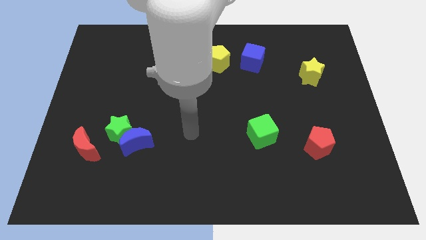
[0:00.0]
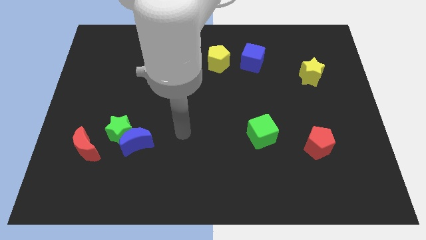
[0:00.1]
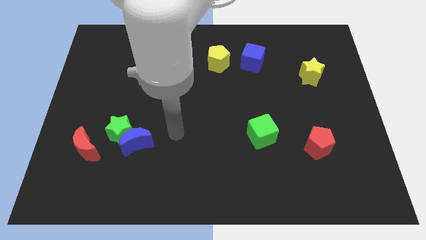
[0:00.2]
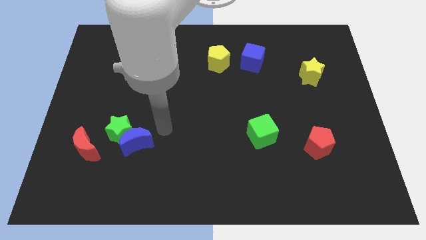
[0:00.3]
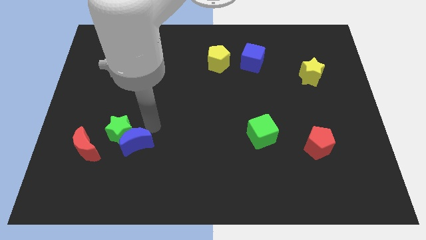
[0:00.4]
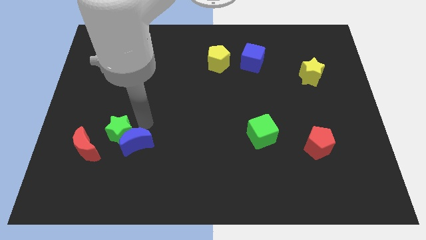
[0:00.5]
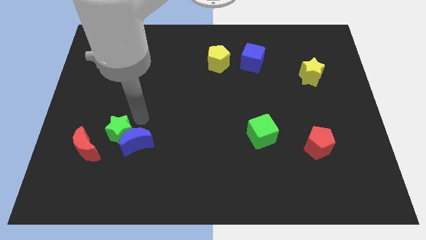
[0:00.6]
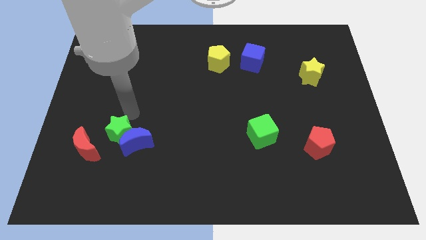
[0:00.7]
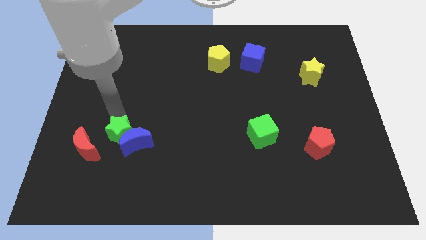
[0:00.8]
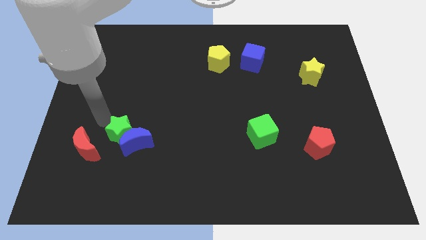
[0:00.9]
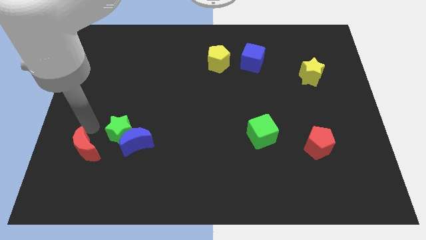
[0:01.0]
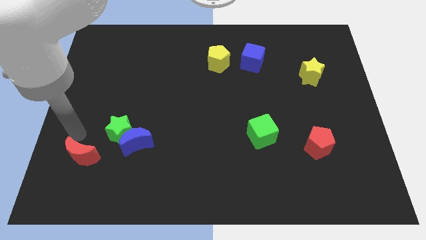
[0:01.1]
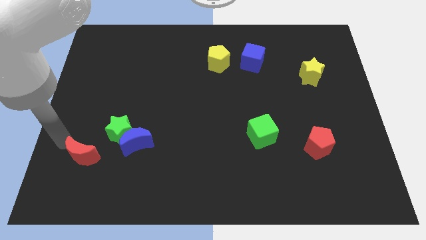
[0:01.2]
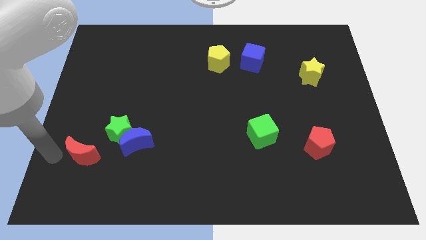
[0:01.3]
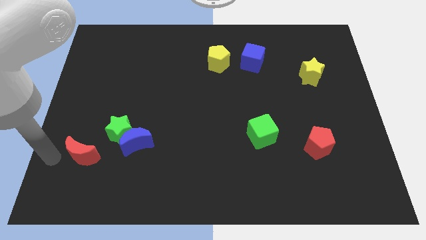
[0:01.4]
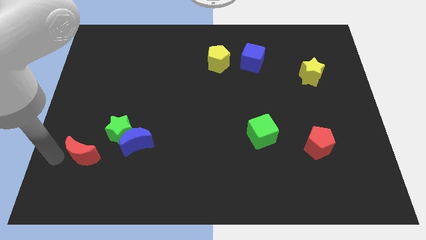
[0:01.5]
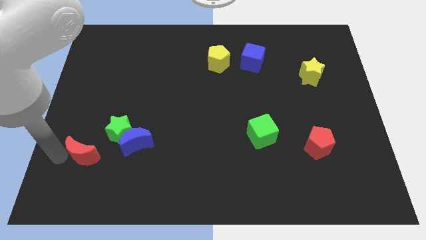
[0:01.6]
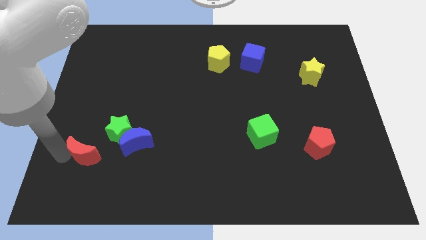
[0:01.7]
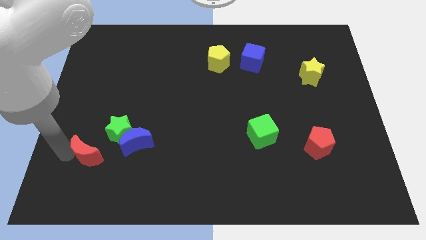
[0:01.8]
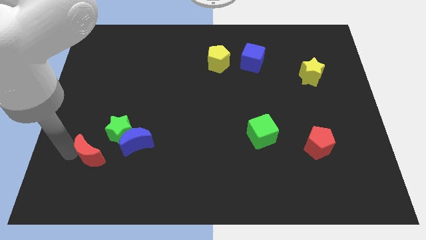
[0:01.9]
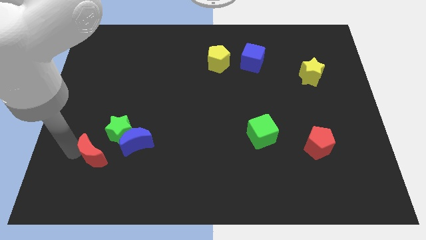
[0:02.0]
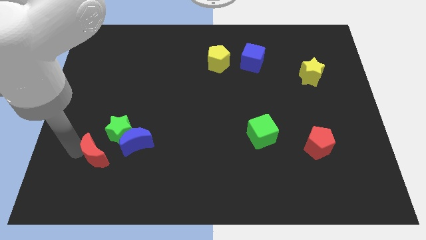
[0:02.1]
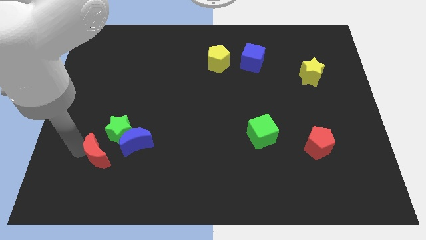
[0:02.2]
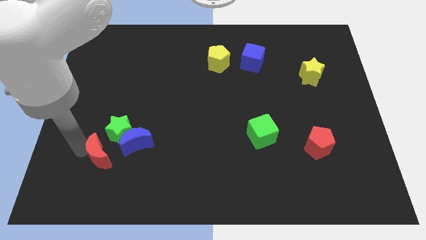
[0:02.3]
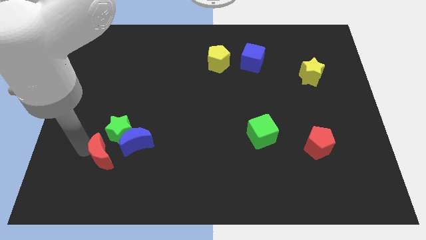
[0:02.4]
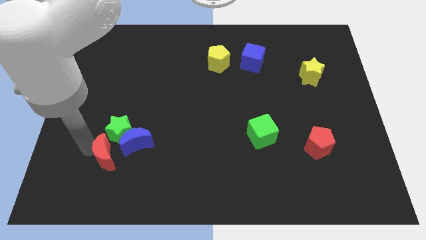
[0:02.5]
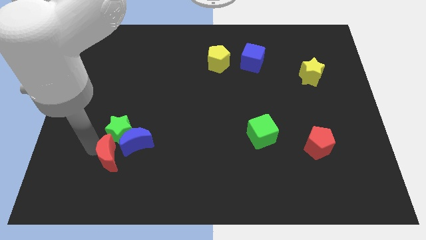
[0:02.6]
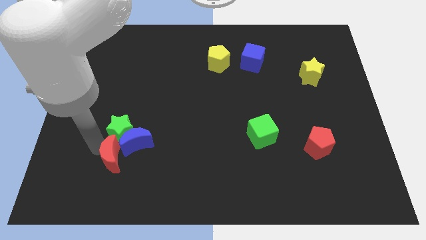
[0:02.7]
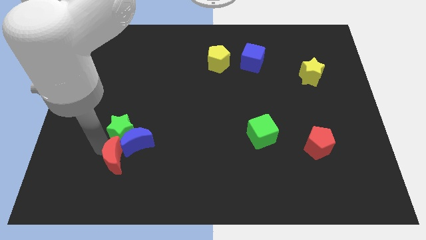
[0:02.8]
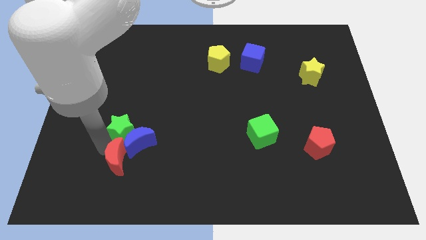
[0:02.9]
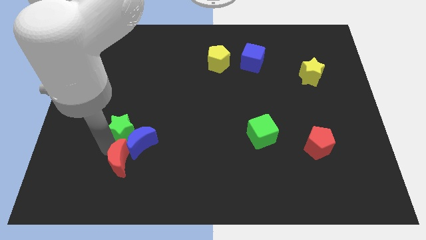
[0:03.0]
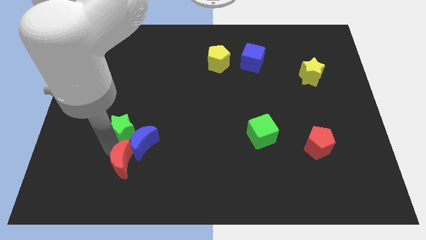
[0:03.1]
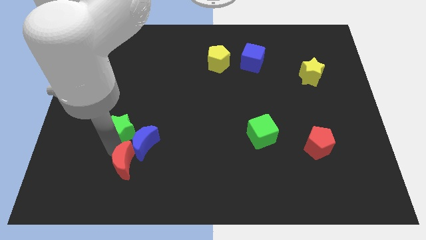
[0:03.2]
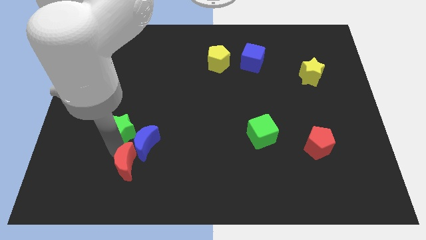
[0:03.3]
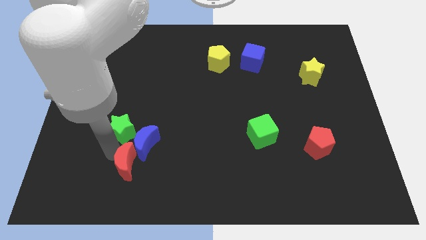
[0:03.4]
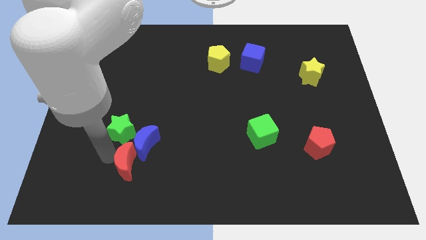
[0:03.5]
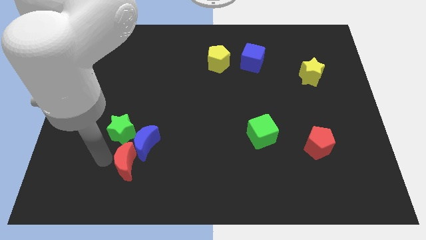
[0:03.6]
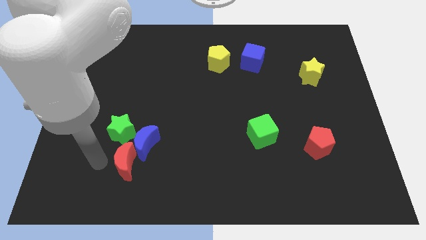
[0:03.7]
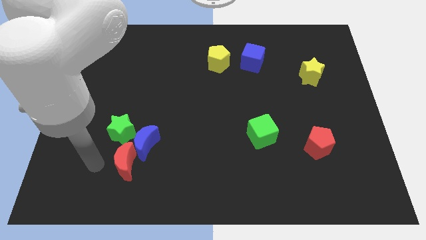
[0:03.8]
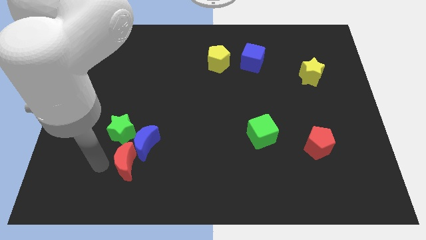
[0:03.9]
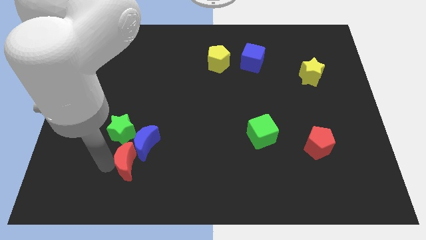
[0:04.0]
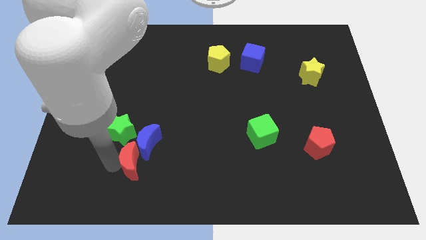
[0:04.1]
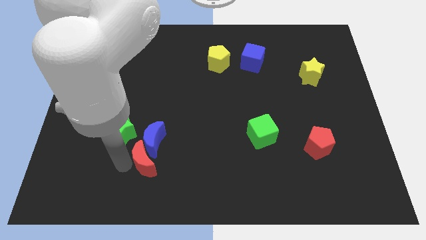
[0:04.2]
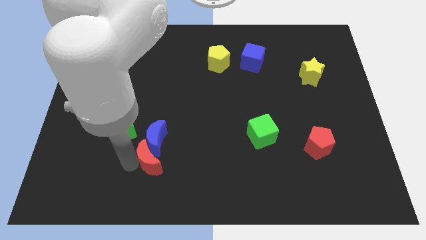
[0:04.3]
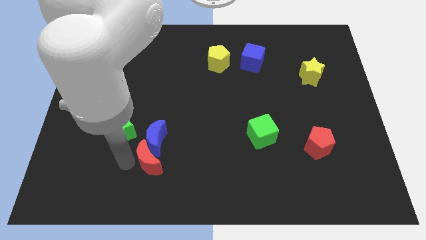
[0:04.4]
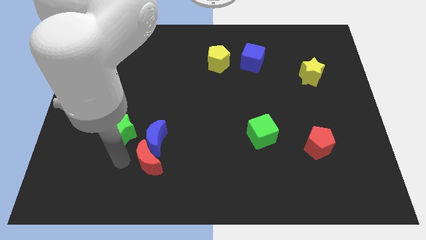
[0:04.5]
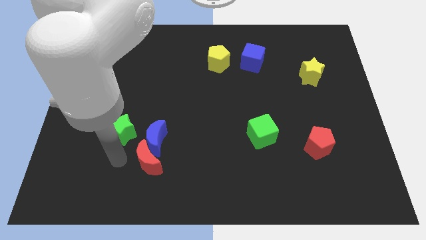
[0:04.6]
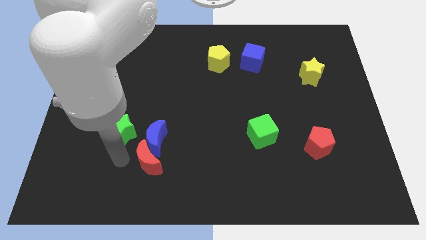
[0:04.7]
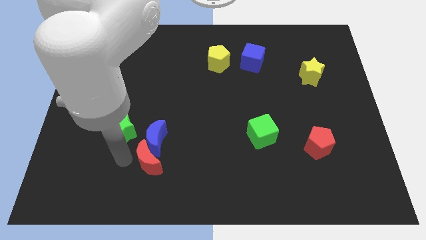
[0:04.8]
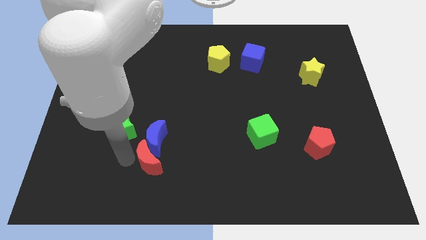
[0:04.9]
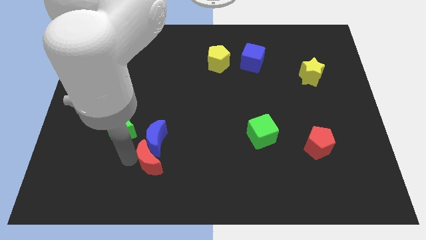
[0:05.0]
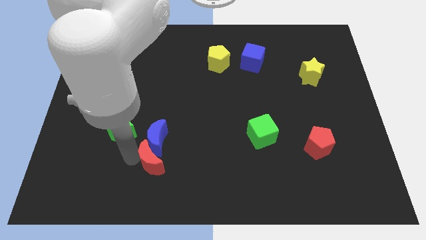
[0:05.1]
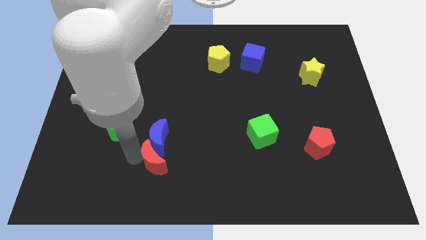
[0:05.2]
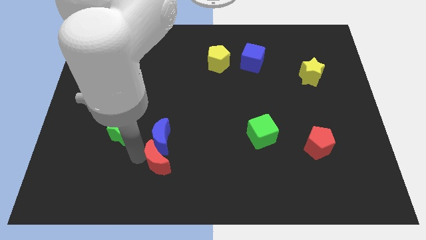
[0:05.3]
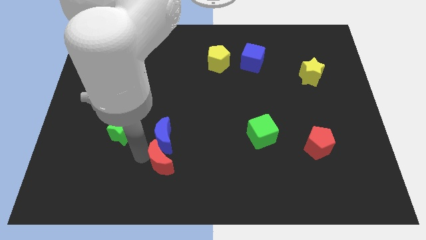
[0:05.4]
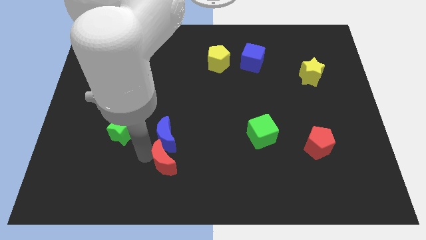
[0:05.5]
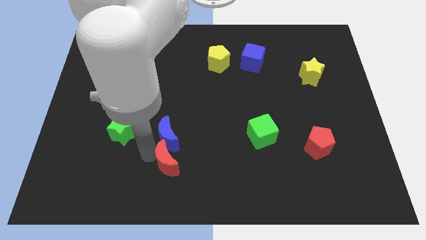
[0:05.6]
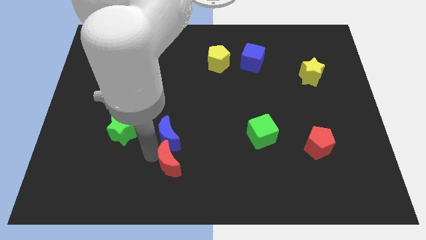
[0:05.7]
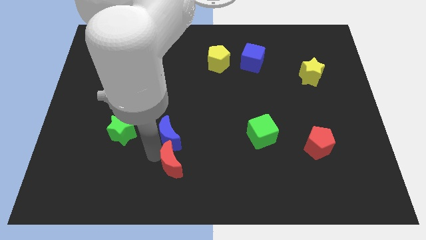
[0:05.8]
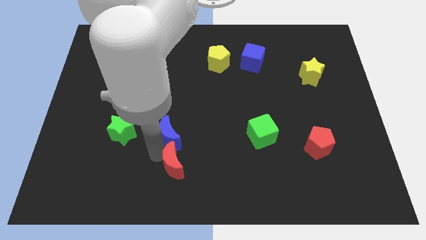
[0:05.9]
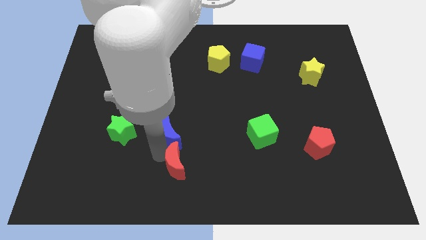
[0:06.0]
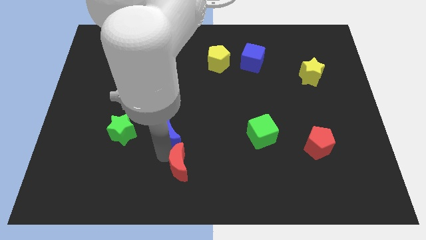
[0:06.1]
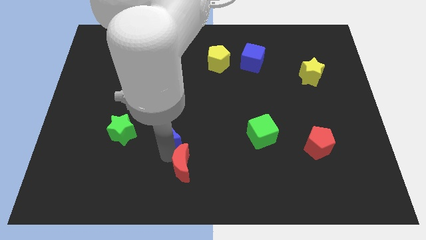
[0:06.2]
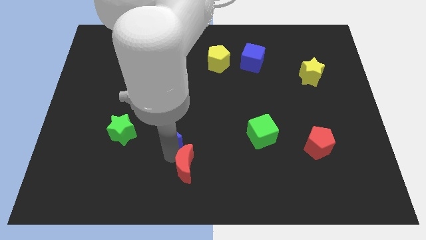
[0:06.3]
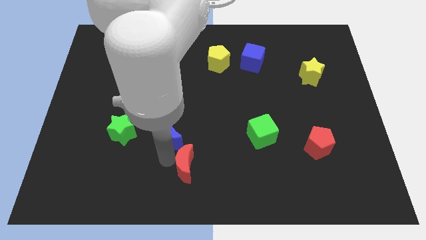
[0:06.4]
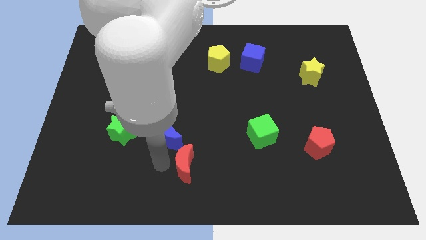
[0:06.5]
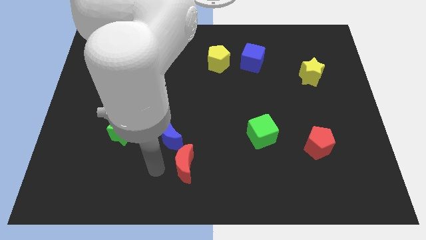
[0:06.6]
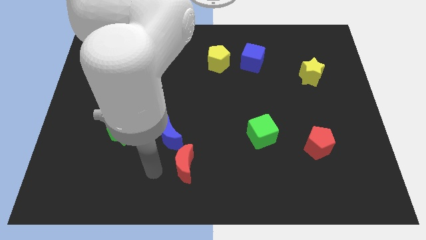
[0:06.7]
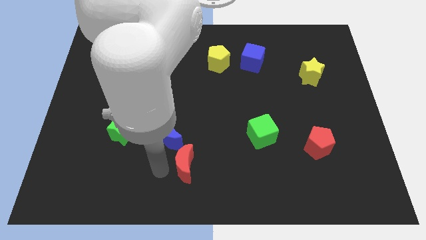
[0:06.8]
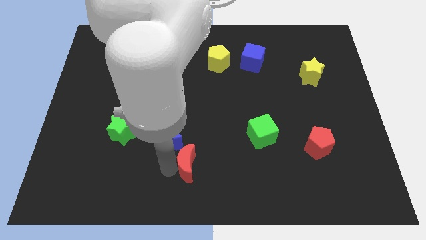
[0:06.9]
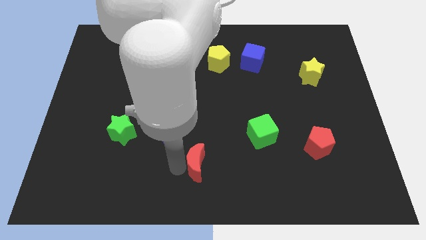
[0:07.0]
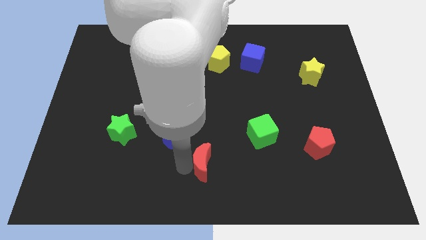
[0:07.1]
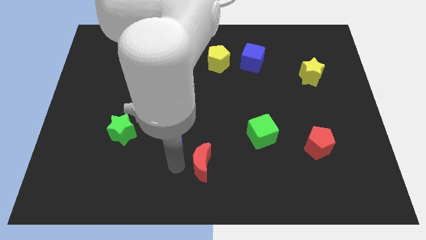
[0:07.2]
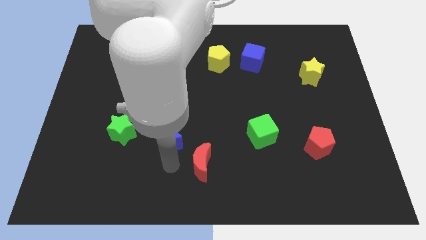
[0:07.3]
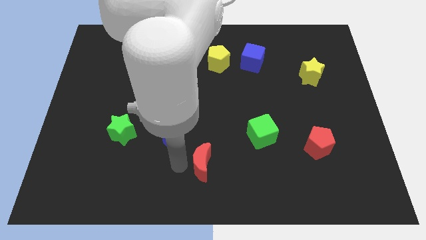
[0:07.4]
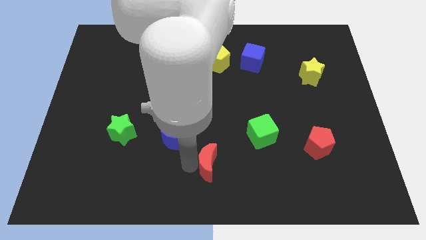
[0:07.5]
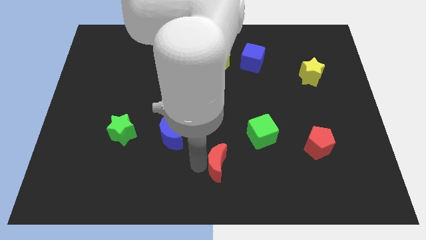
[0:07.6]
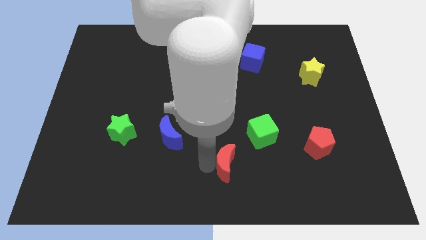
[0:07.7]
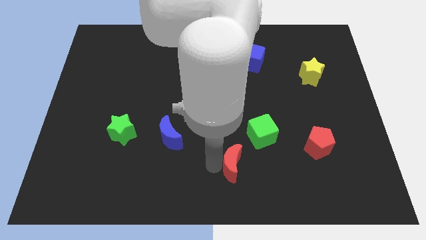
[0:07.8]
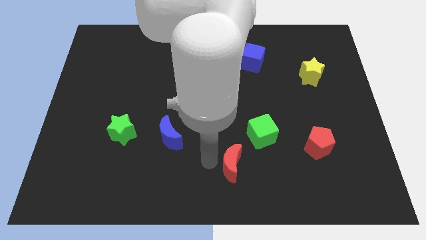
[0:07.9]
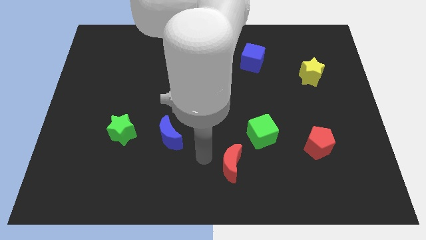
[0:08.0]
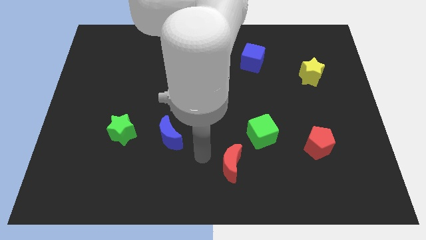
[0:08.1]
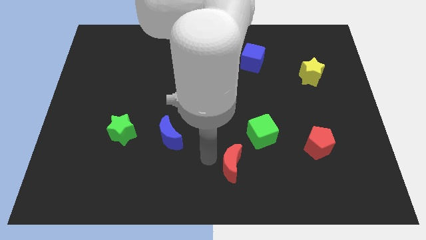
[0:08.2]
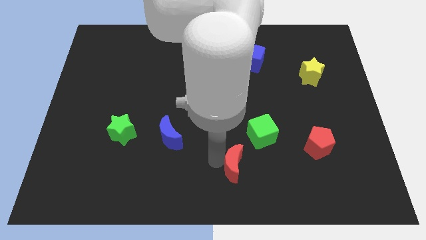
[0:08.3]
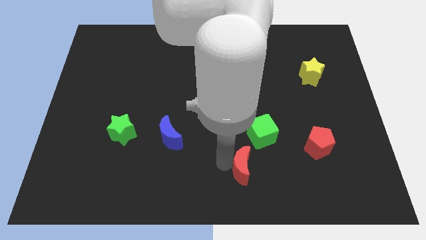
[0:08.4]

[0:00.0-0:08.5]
put the red moon to the bottom of the green cube
